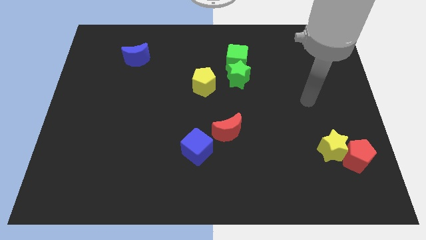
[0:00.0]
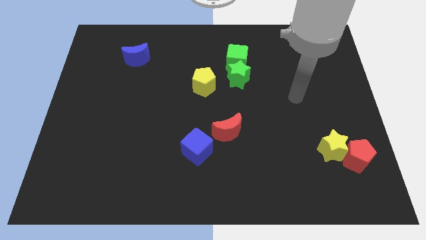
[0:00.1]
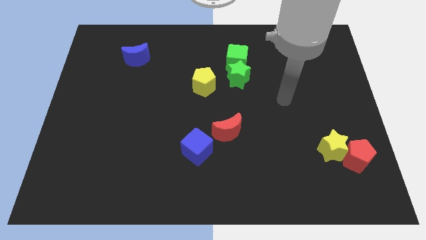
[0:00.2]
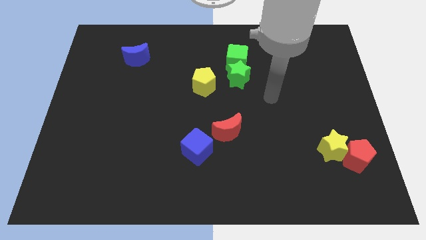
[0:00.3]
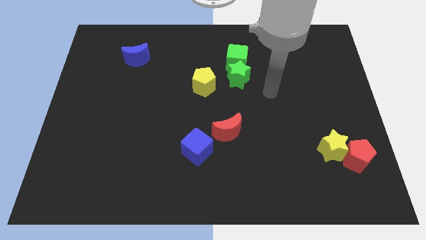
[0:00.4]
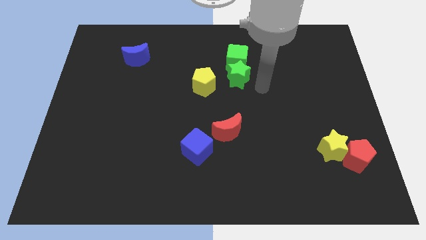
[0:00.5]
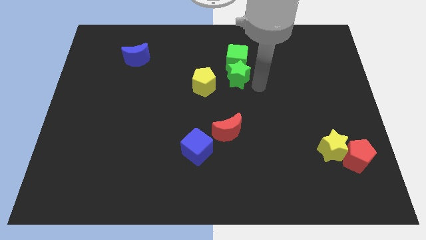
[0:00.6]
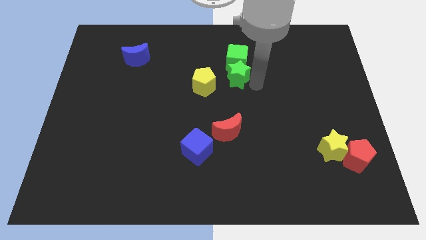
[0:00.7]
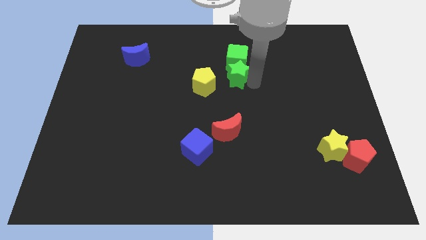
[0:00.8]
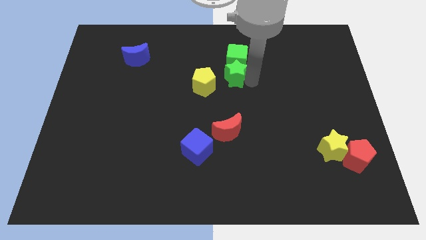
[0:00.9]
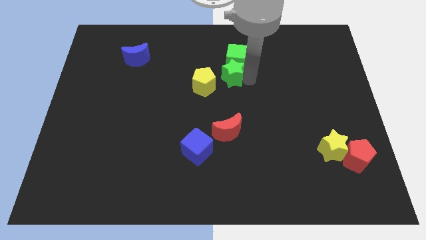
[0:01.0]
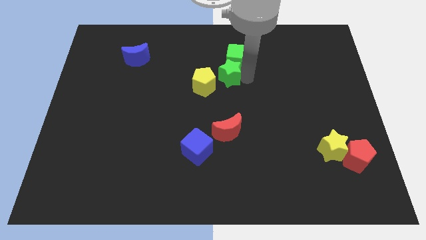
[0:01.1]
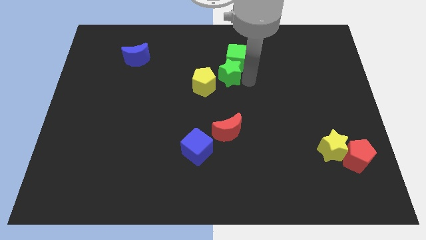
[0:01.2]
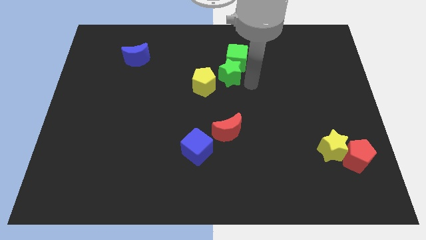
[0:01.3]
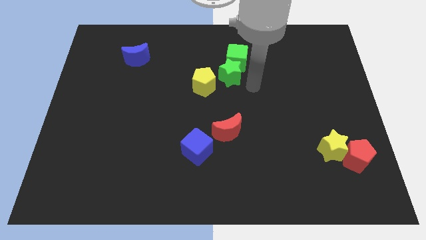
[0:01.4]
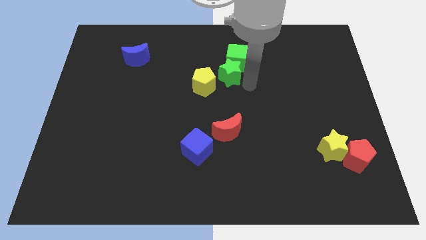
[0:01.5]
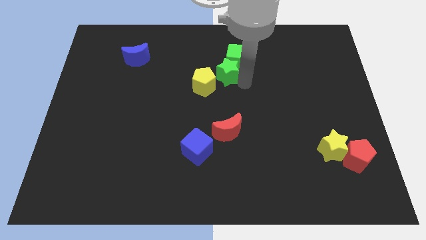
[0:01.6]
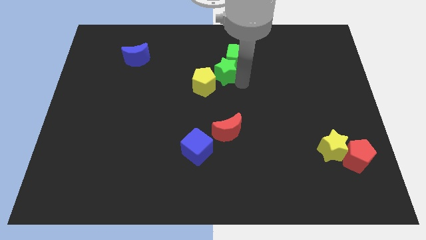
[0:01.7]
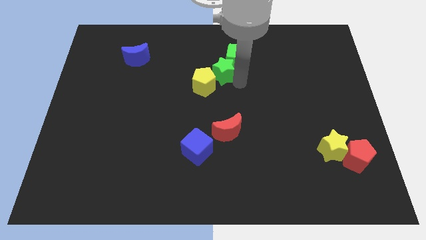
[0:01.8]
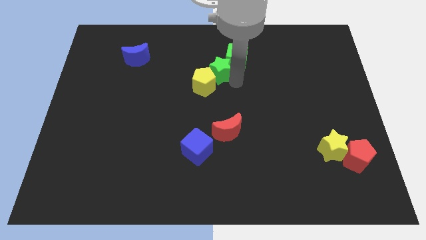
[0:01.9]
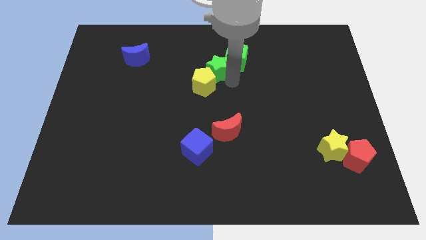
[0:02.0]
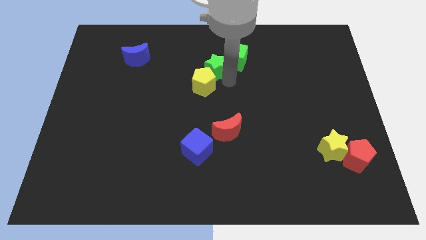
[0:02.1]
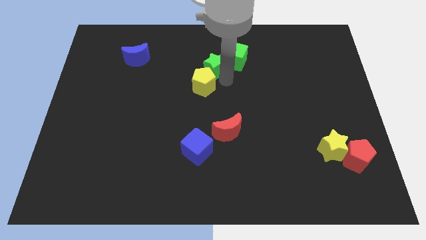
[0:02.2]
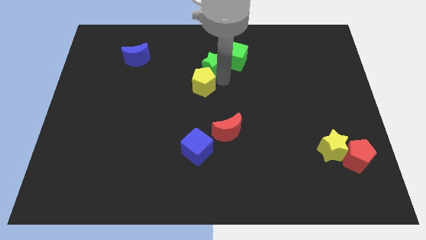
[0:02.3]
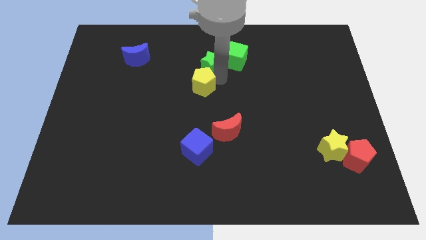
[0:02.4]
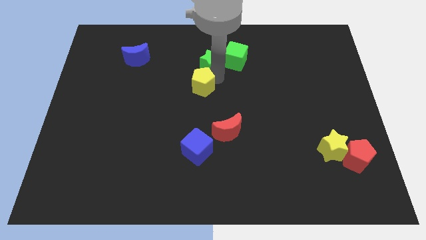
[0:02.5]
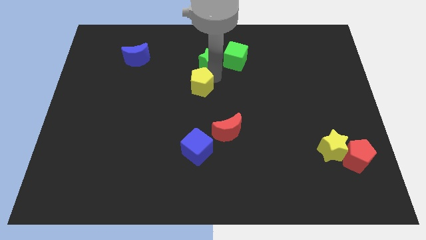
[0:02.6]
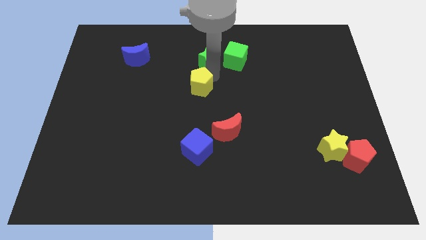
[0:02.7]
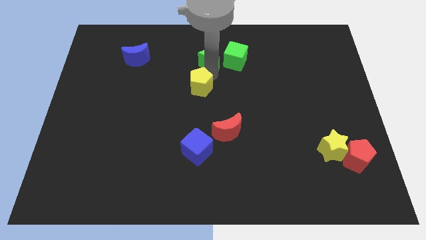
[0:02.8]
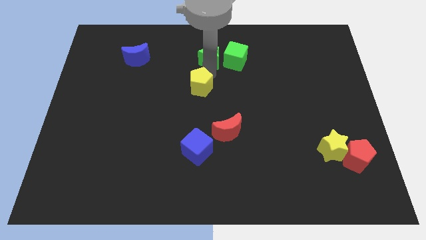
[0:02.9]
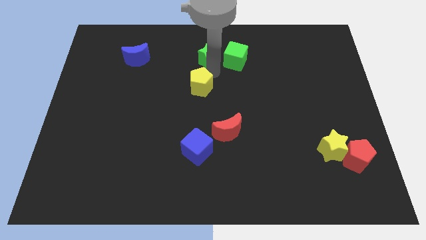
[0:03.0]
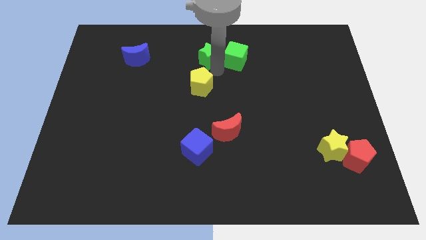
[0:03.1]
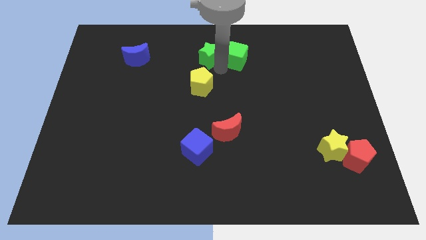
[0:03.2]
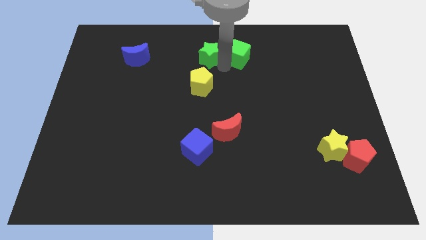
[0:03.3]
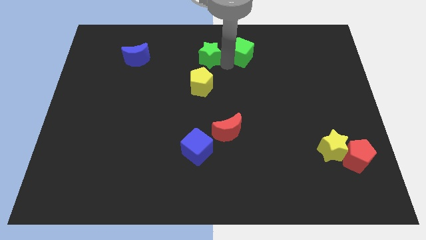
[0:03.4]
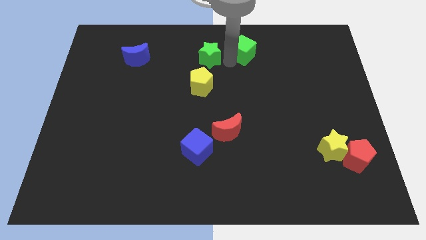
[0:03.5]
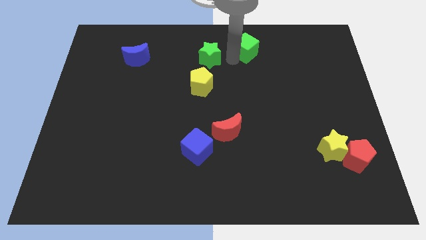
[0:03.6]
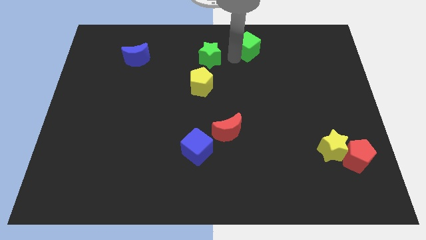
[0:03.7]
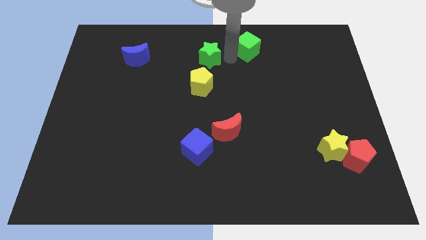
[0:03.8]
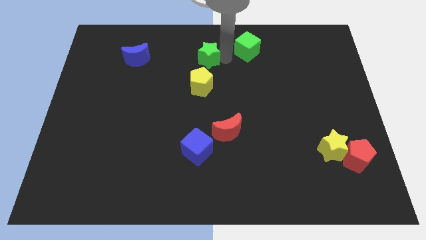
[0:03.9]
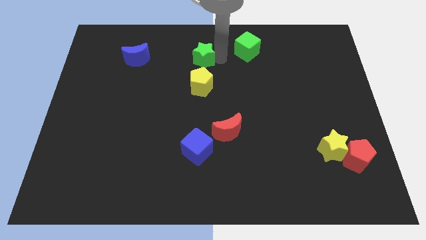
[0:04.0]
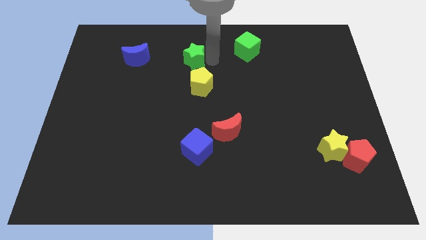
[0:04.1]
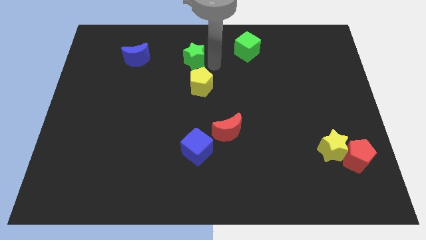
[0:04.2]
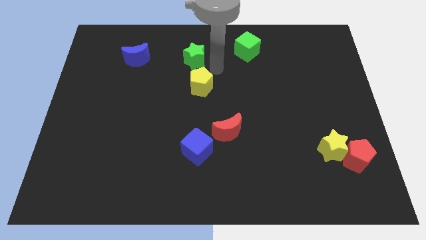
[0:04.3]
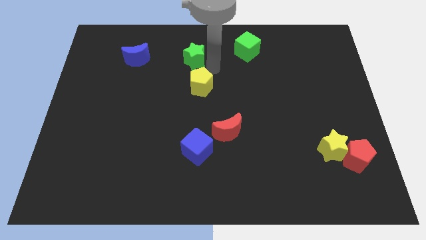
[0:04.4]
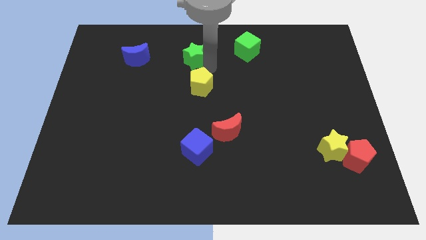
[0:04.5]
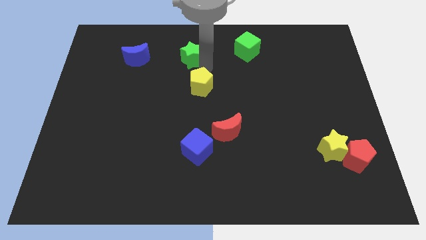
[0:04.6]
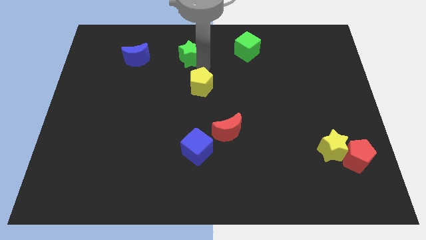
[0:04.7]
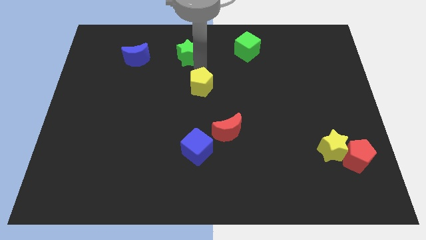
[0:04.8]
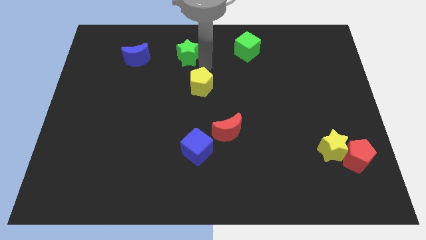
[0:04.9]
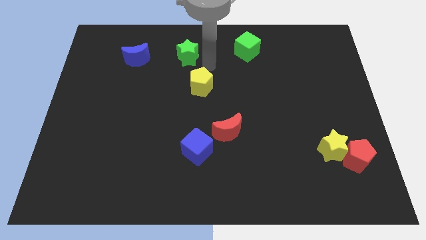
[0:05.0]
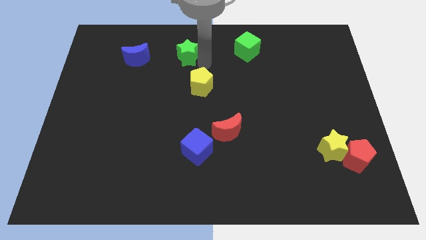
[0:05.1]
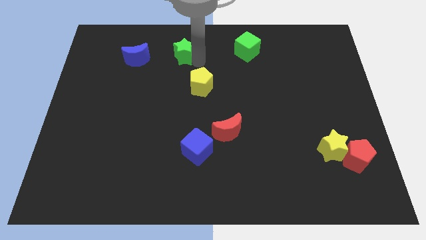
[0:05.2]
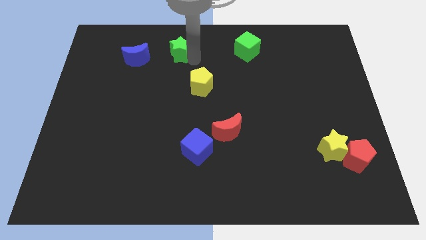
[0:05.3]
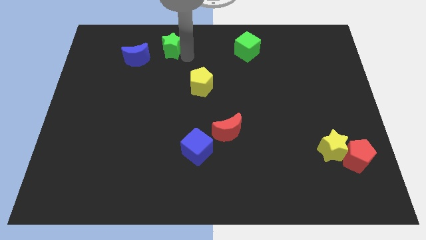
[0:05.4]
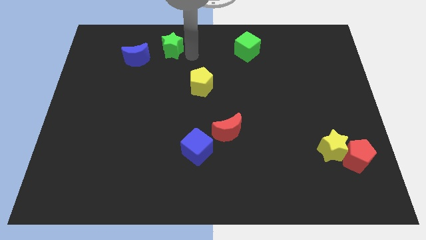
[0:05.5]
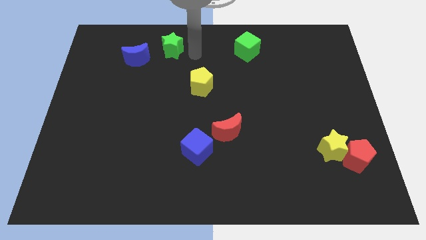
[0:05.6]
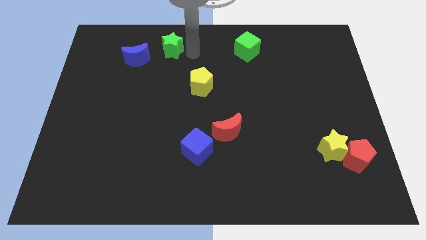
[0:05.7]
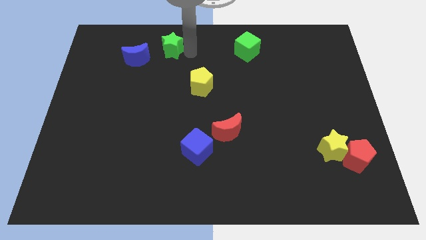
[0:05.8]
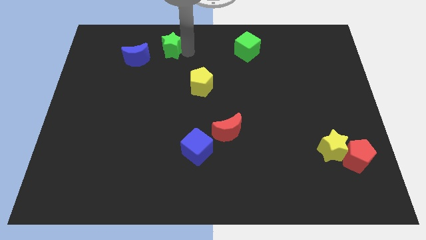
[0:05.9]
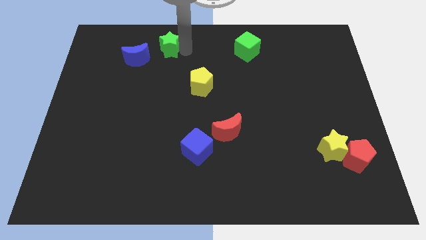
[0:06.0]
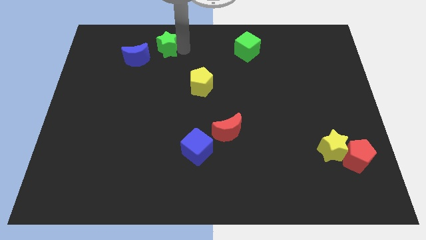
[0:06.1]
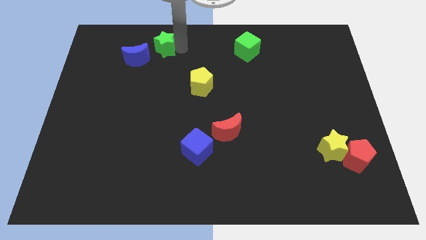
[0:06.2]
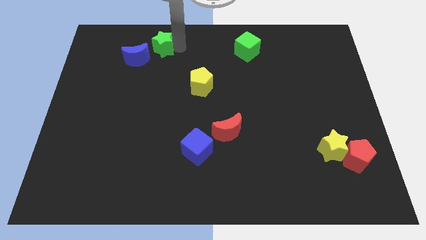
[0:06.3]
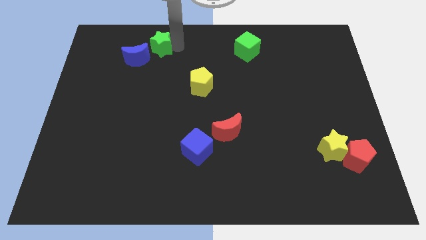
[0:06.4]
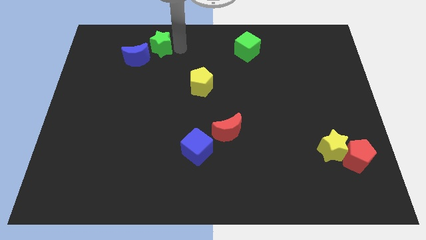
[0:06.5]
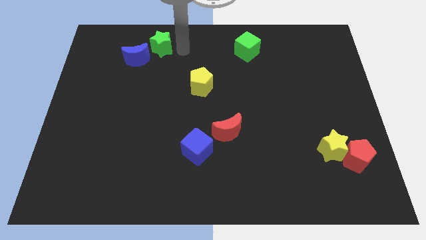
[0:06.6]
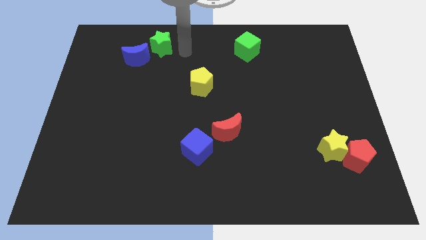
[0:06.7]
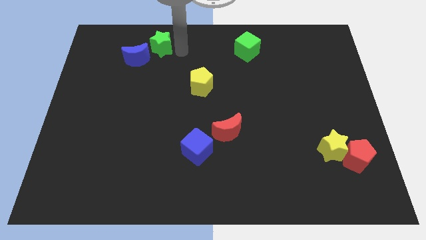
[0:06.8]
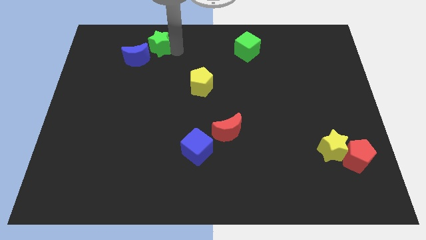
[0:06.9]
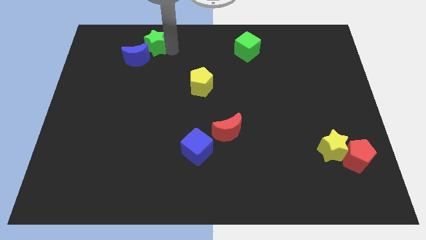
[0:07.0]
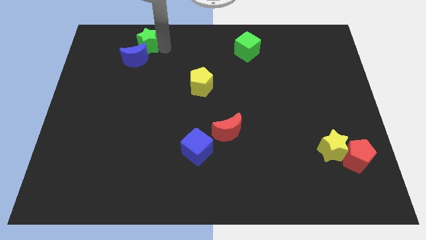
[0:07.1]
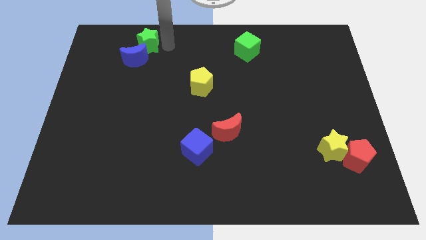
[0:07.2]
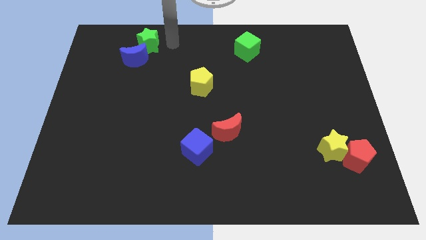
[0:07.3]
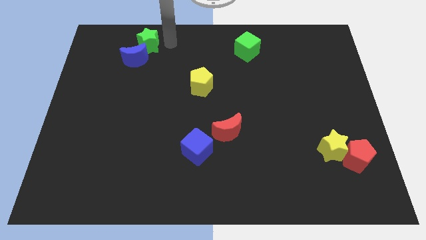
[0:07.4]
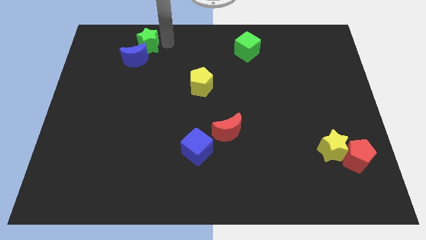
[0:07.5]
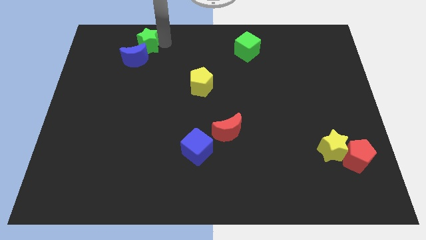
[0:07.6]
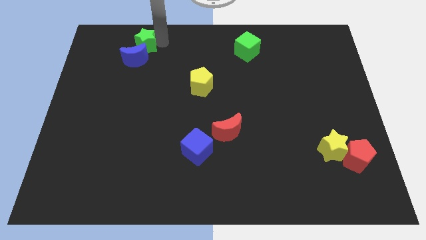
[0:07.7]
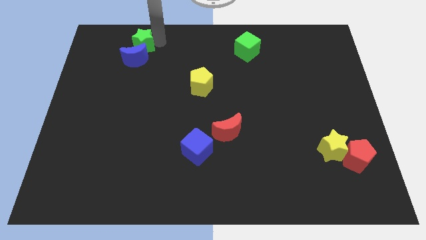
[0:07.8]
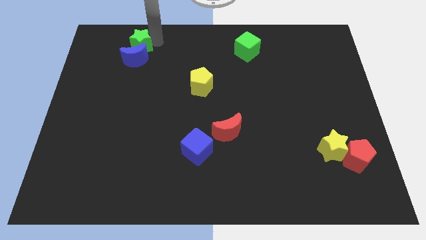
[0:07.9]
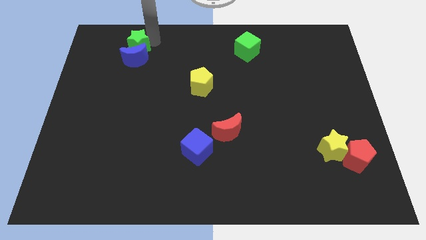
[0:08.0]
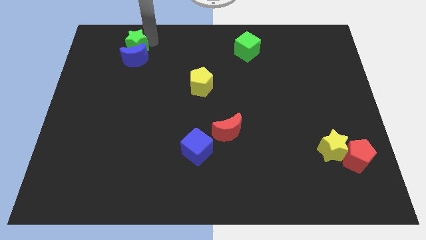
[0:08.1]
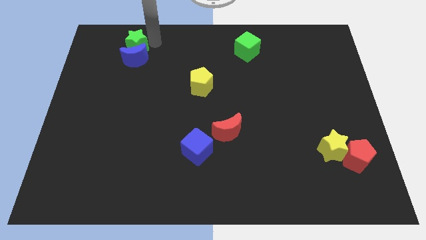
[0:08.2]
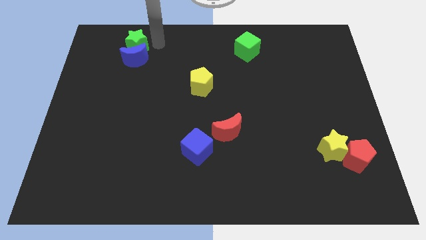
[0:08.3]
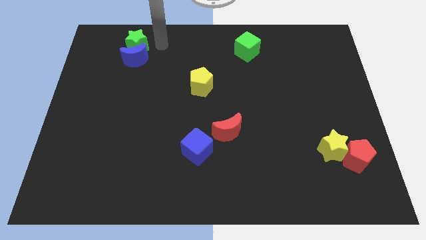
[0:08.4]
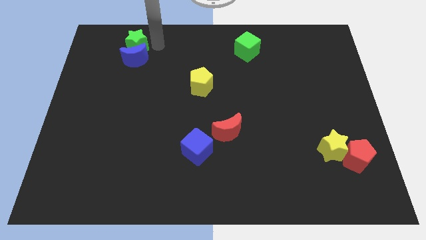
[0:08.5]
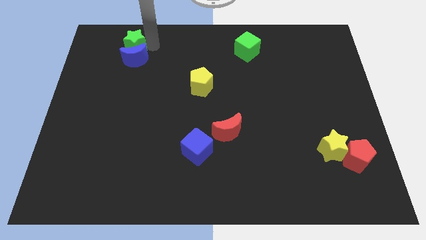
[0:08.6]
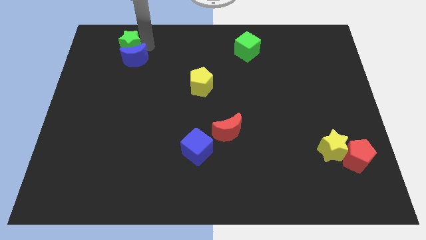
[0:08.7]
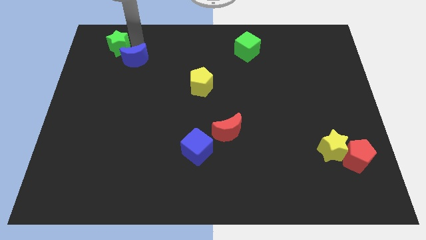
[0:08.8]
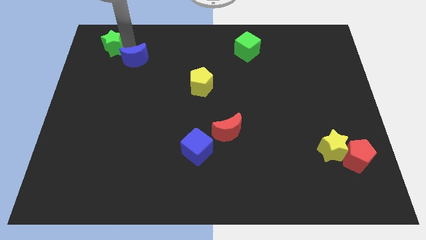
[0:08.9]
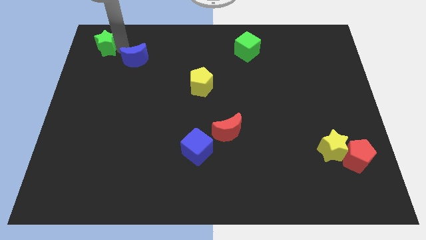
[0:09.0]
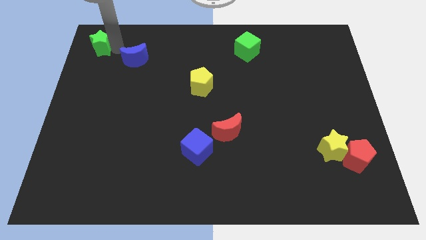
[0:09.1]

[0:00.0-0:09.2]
slide the green star to the top left of the board
